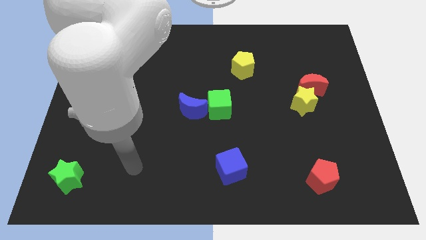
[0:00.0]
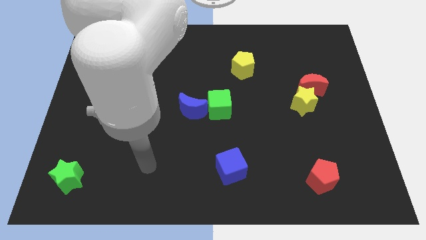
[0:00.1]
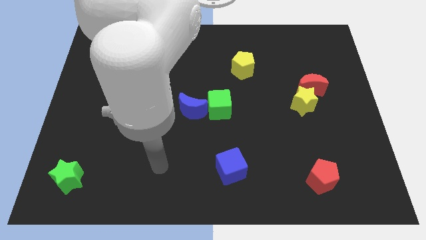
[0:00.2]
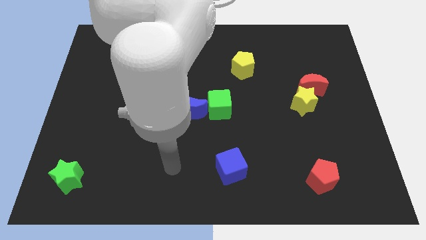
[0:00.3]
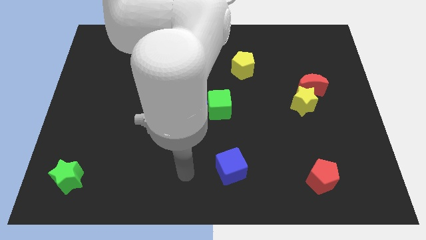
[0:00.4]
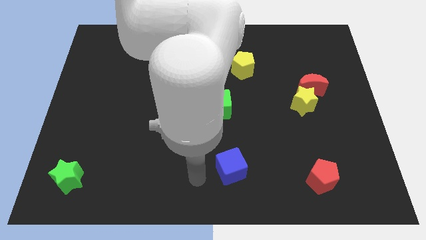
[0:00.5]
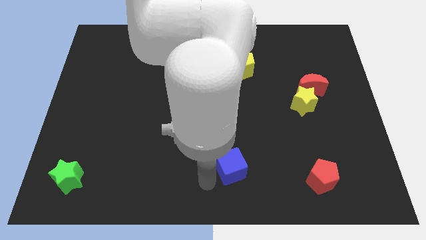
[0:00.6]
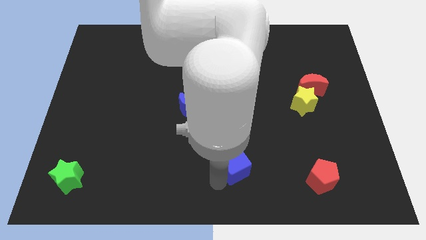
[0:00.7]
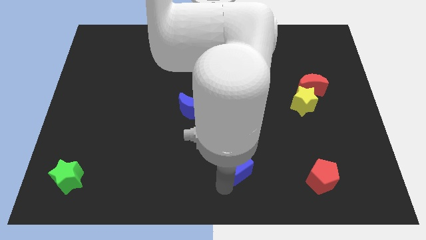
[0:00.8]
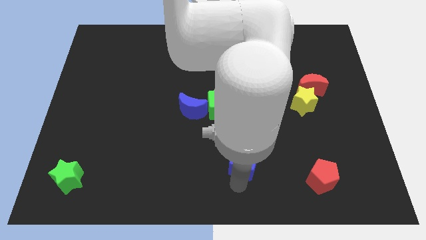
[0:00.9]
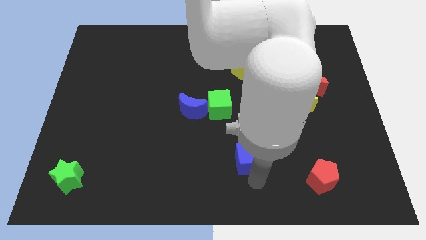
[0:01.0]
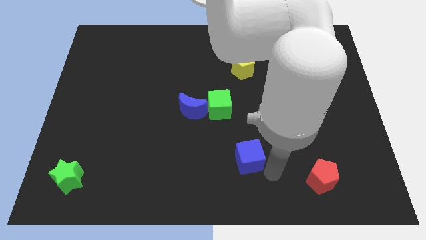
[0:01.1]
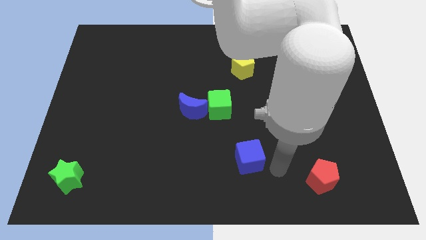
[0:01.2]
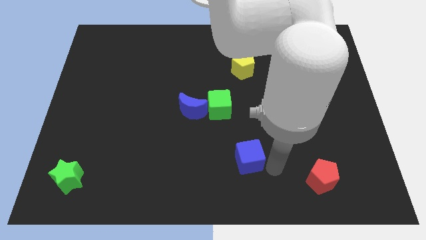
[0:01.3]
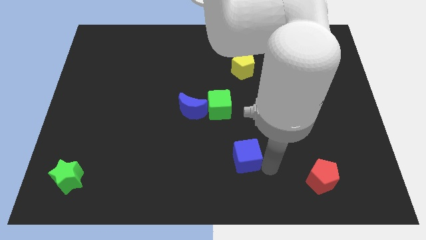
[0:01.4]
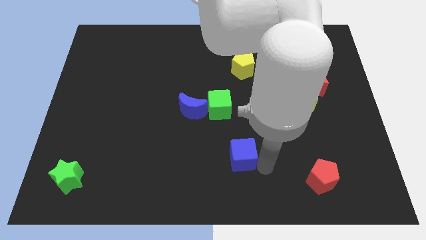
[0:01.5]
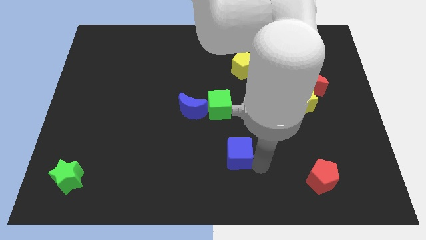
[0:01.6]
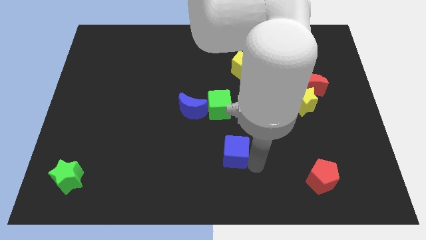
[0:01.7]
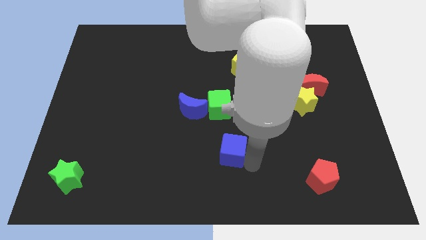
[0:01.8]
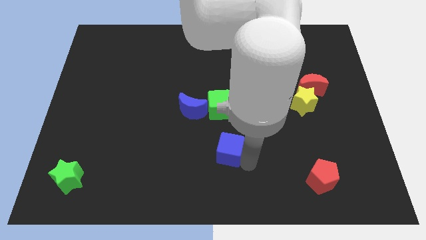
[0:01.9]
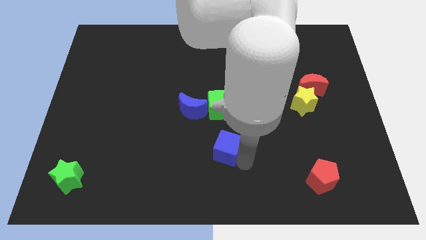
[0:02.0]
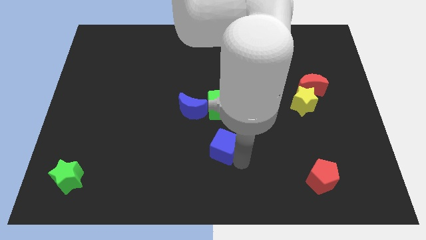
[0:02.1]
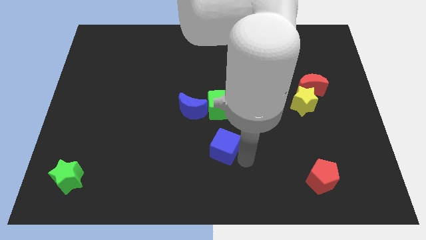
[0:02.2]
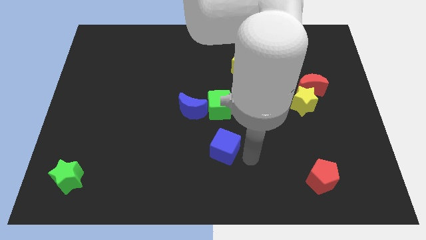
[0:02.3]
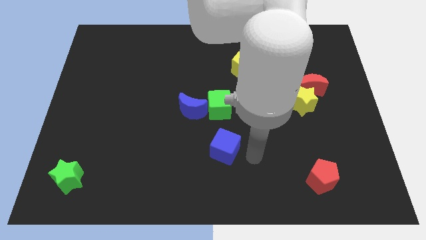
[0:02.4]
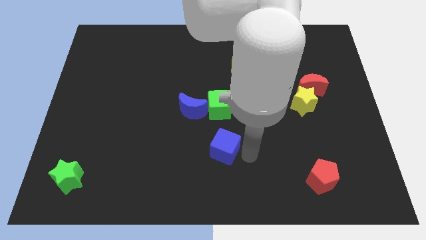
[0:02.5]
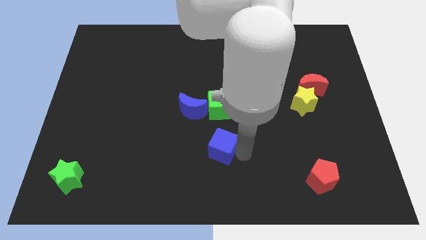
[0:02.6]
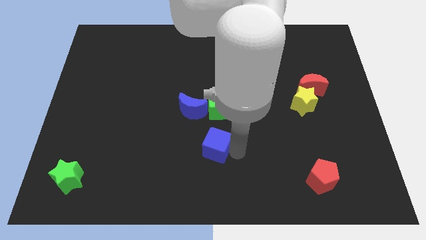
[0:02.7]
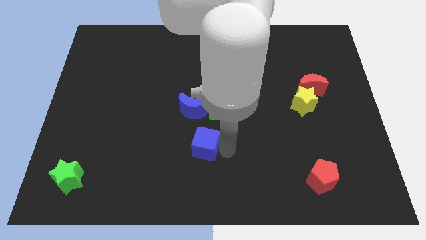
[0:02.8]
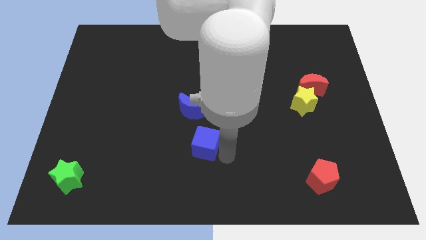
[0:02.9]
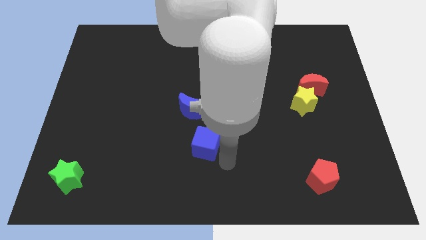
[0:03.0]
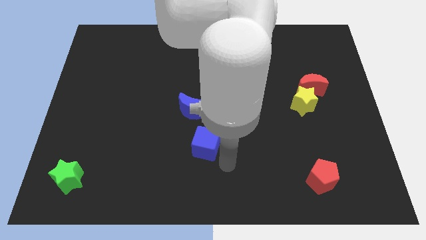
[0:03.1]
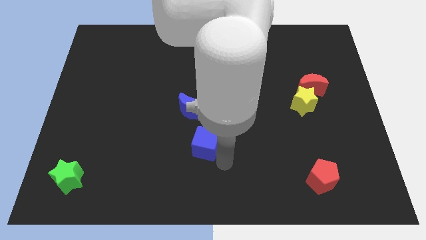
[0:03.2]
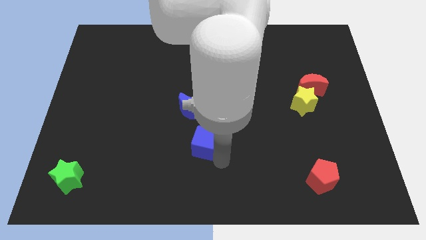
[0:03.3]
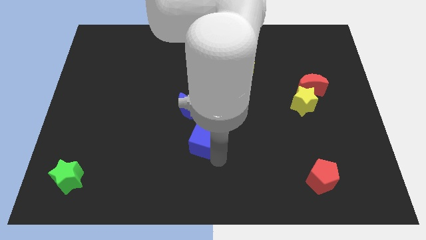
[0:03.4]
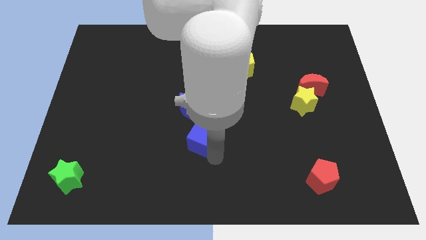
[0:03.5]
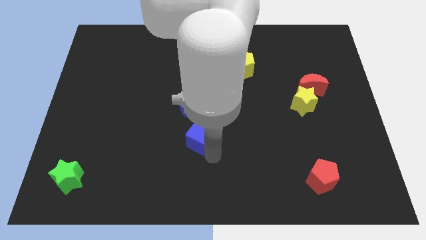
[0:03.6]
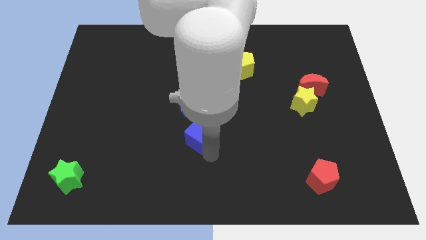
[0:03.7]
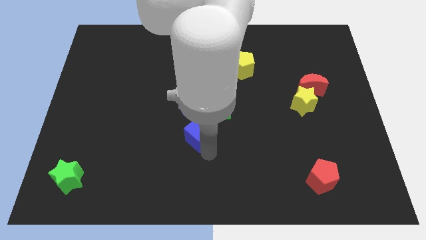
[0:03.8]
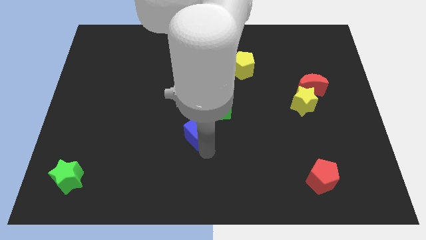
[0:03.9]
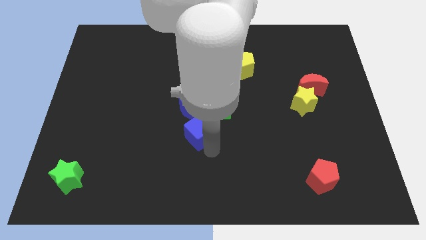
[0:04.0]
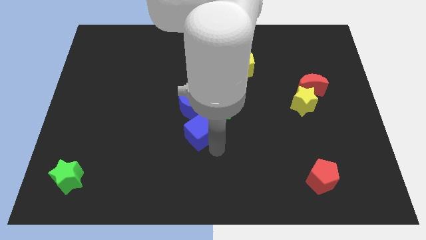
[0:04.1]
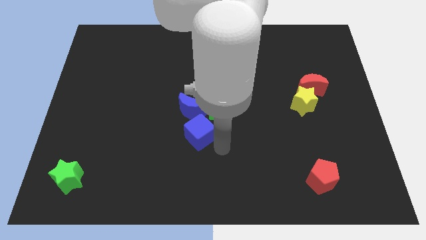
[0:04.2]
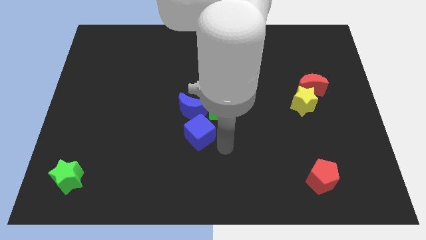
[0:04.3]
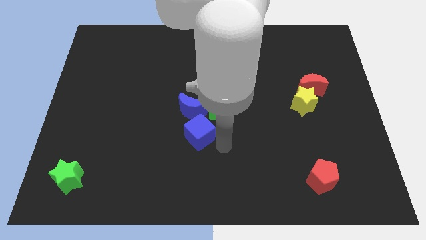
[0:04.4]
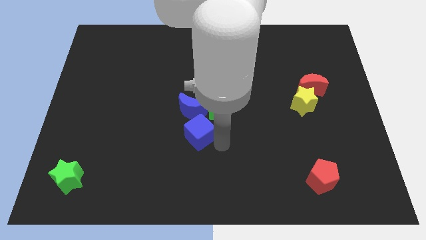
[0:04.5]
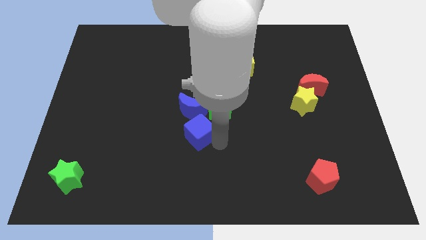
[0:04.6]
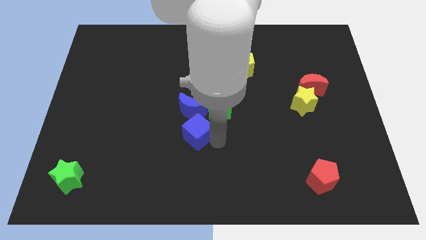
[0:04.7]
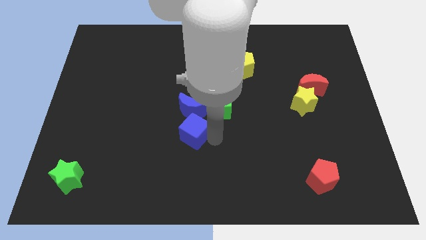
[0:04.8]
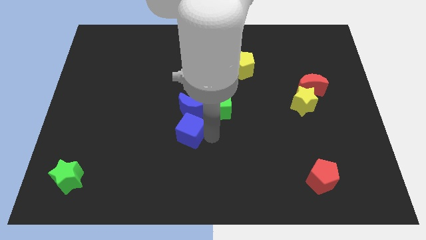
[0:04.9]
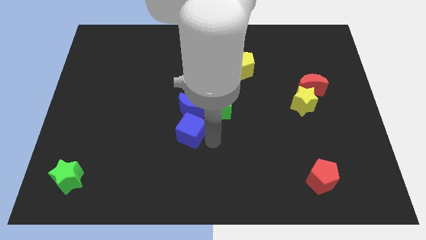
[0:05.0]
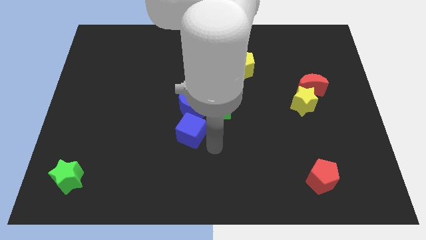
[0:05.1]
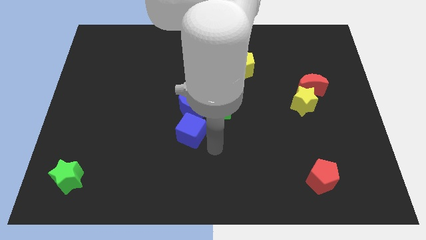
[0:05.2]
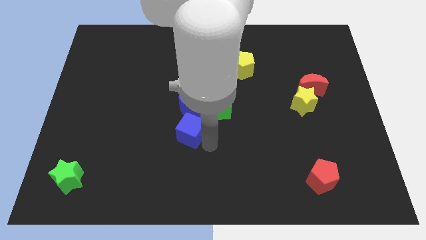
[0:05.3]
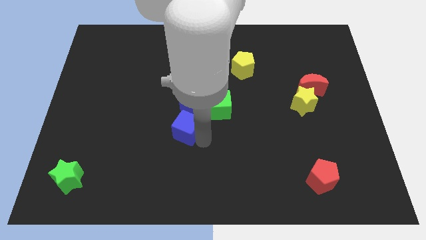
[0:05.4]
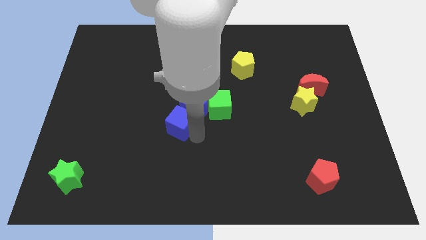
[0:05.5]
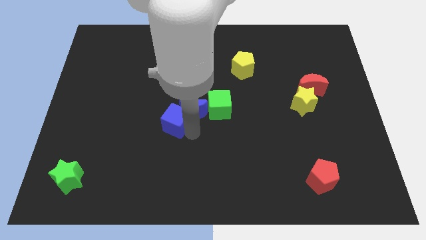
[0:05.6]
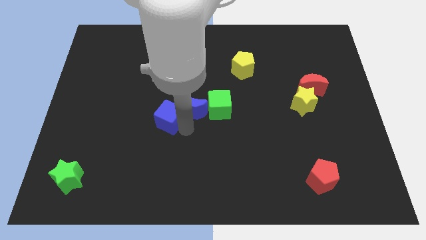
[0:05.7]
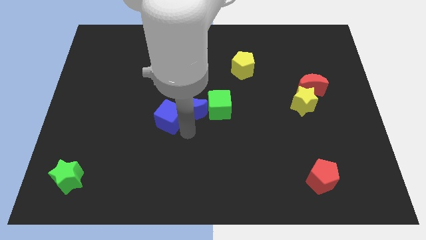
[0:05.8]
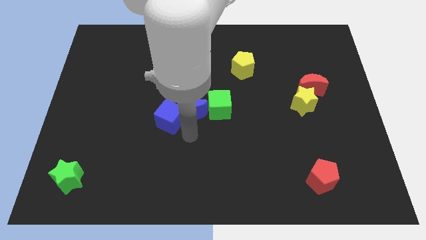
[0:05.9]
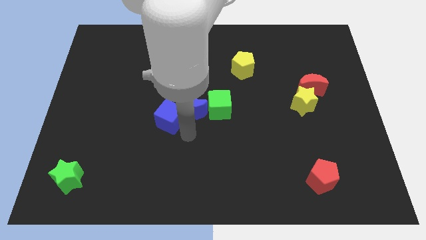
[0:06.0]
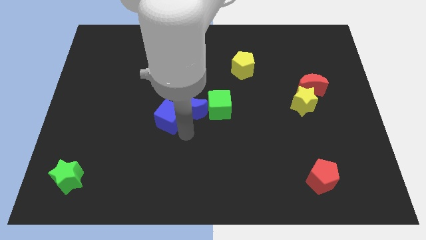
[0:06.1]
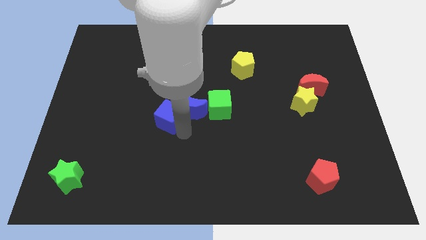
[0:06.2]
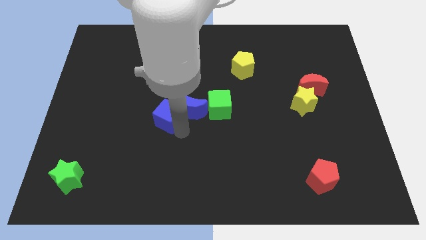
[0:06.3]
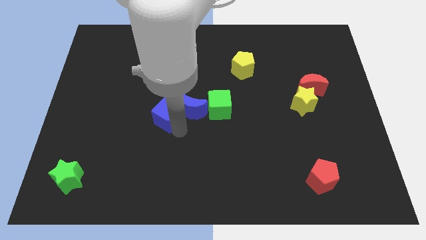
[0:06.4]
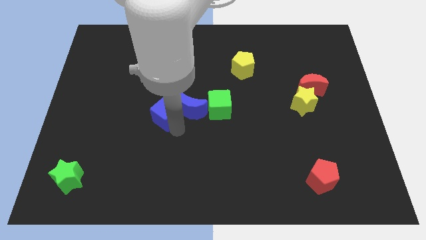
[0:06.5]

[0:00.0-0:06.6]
move the blue cube up and left

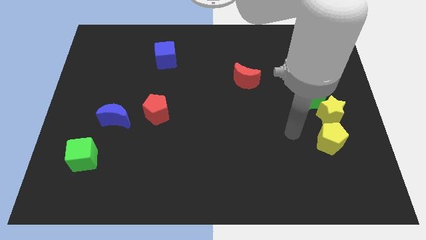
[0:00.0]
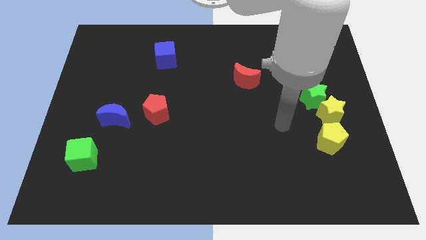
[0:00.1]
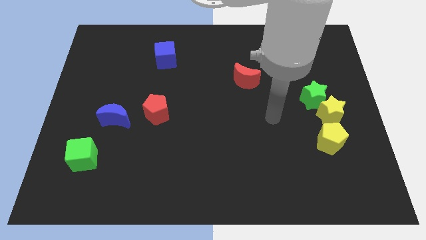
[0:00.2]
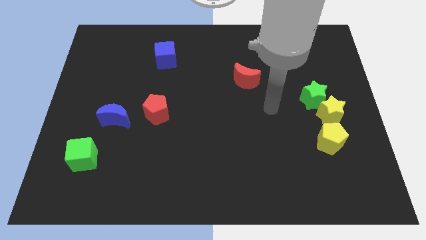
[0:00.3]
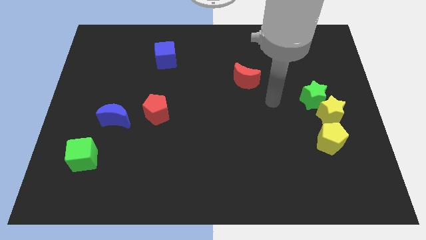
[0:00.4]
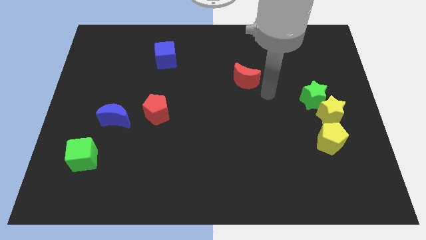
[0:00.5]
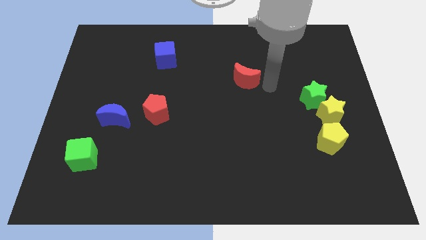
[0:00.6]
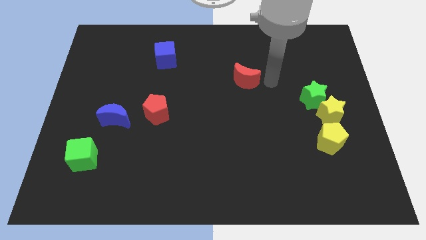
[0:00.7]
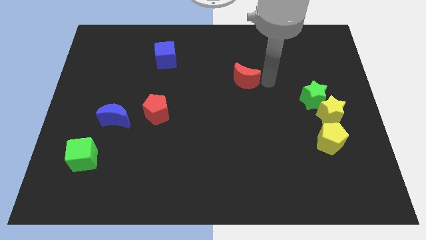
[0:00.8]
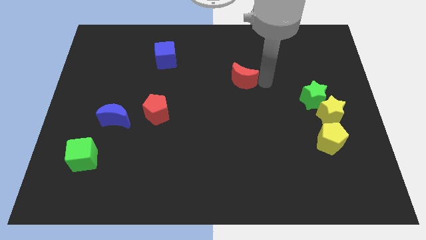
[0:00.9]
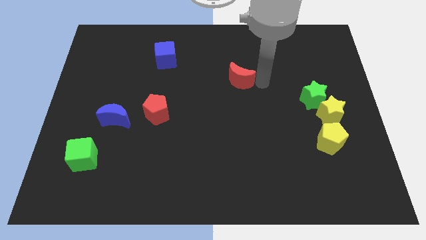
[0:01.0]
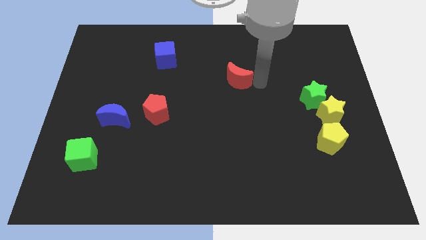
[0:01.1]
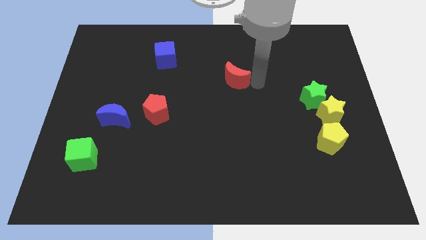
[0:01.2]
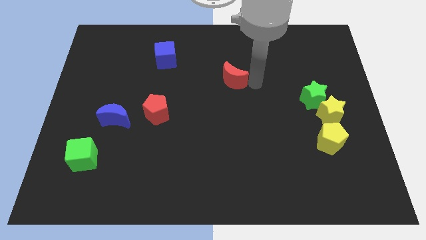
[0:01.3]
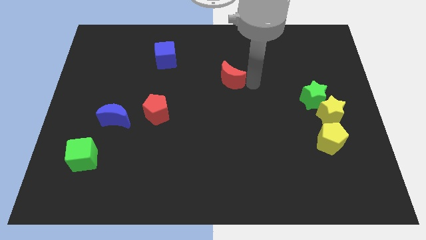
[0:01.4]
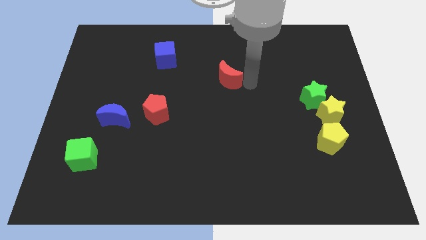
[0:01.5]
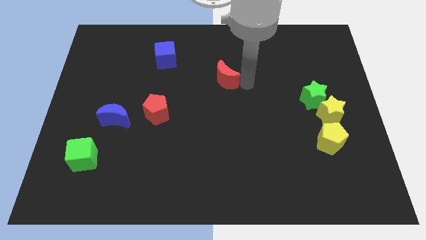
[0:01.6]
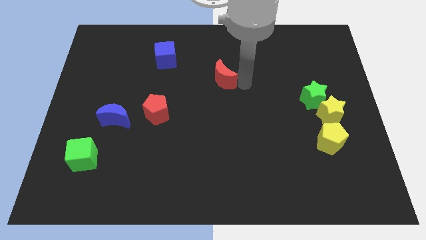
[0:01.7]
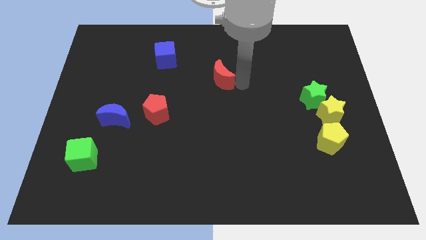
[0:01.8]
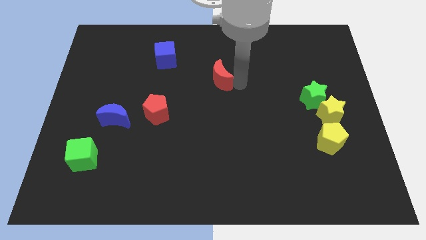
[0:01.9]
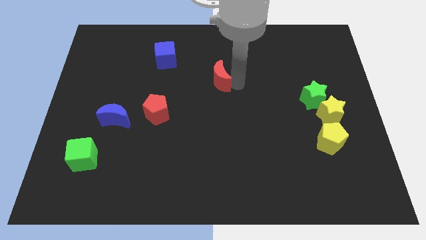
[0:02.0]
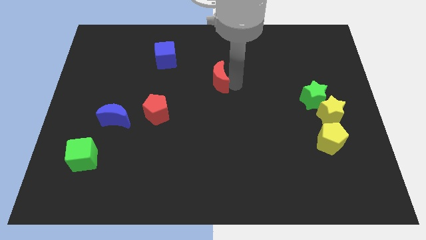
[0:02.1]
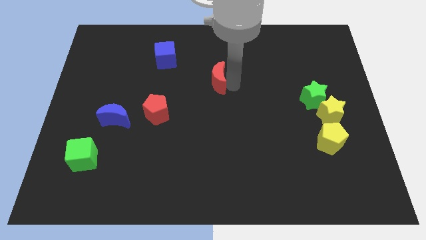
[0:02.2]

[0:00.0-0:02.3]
slightly push the red moon to the left
